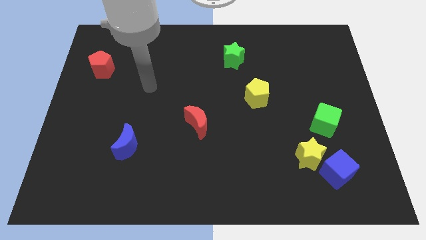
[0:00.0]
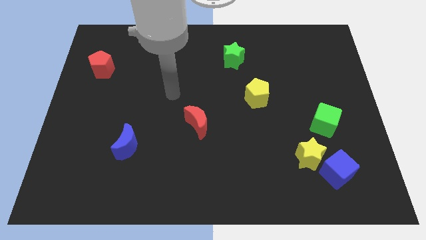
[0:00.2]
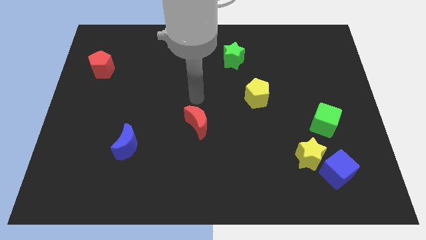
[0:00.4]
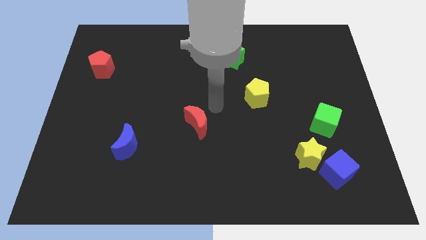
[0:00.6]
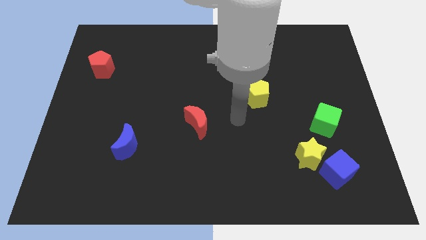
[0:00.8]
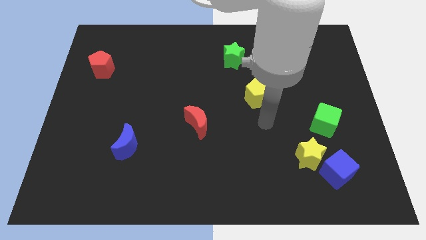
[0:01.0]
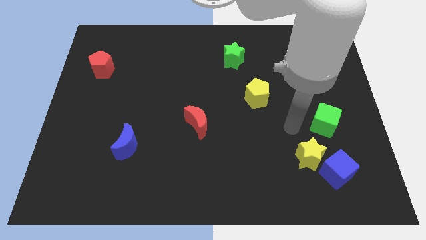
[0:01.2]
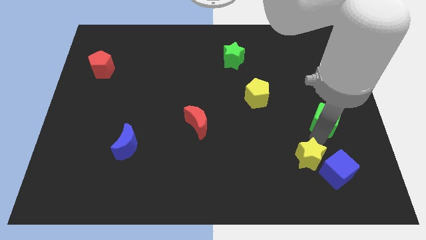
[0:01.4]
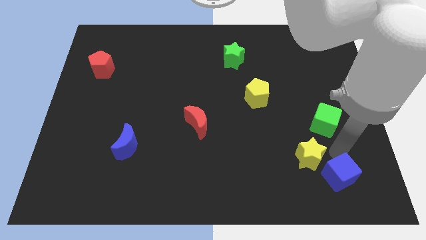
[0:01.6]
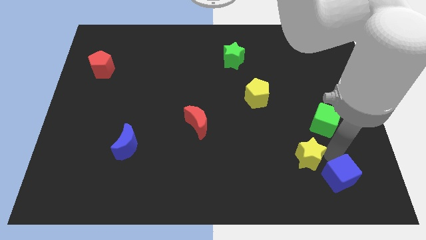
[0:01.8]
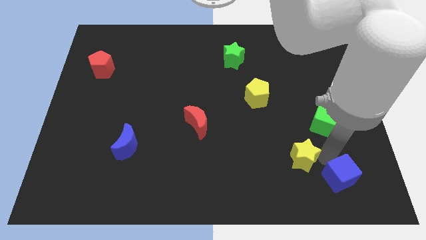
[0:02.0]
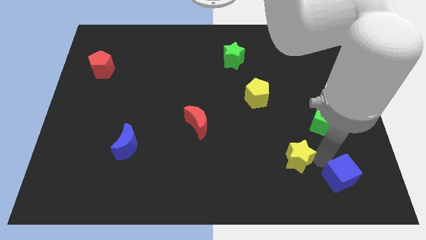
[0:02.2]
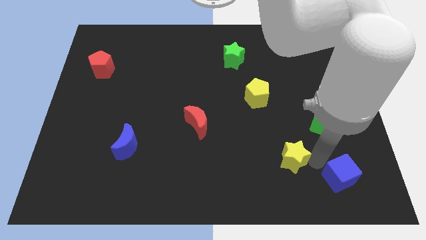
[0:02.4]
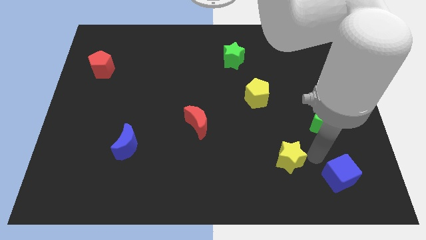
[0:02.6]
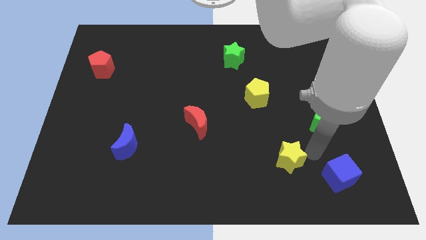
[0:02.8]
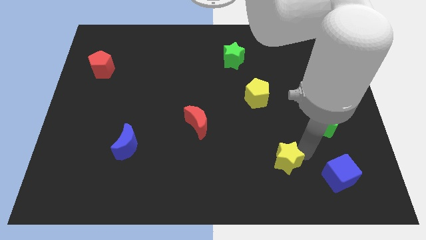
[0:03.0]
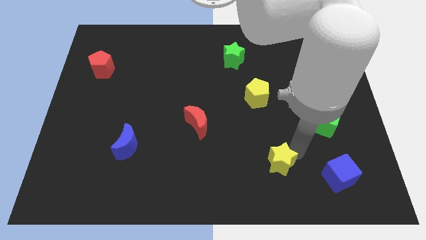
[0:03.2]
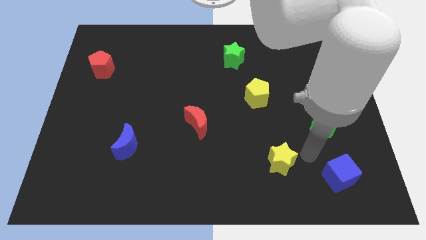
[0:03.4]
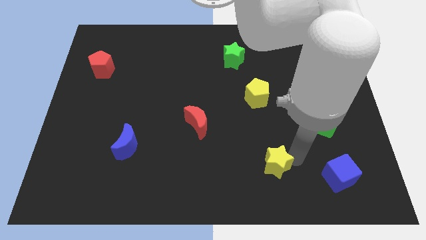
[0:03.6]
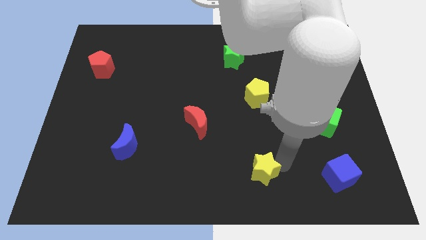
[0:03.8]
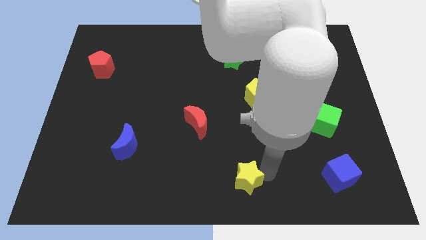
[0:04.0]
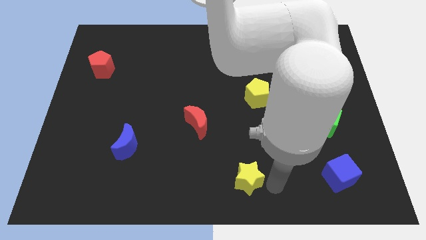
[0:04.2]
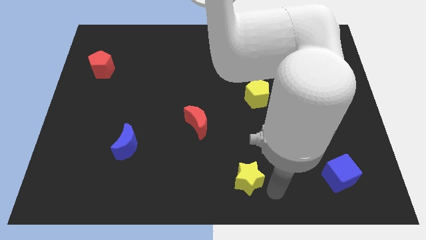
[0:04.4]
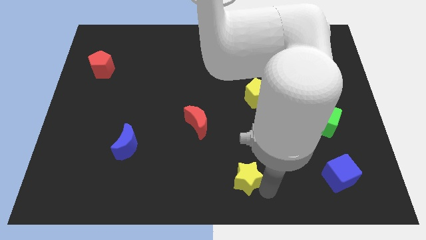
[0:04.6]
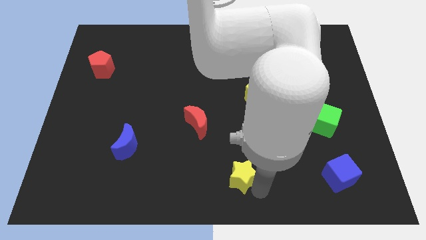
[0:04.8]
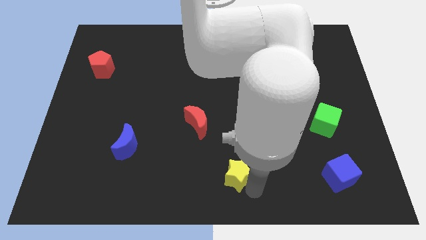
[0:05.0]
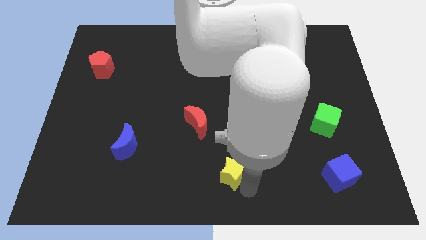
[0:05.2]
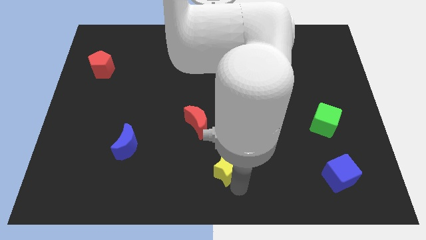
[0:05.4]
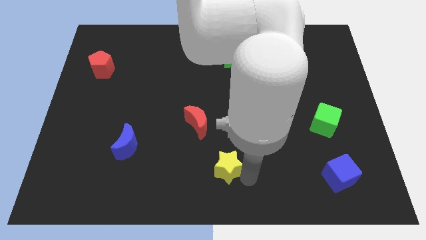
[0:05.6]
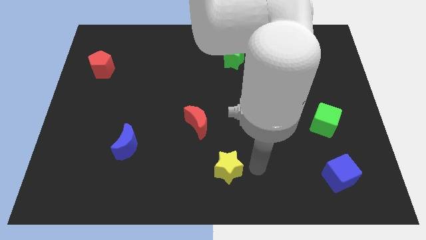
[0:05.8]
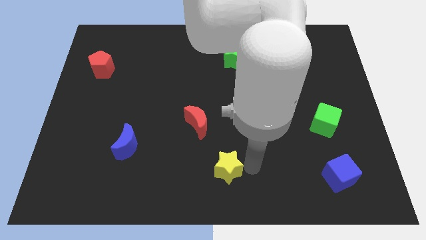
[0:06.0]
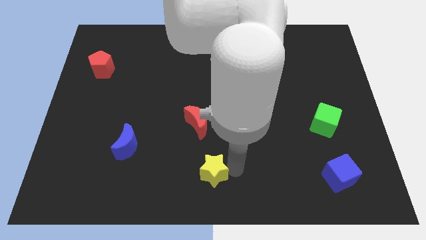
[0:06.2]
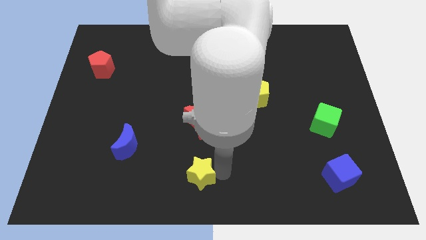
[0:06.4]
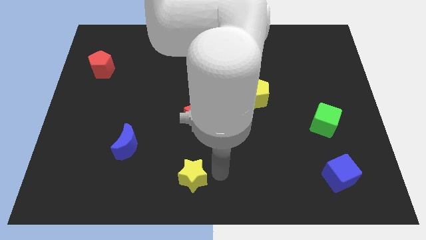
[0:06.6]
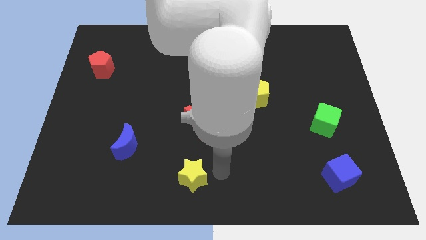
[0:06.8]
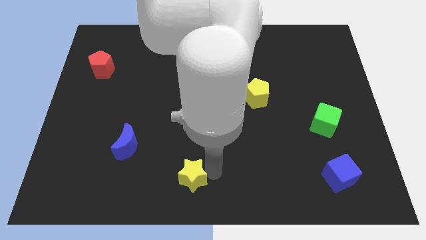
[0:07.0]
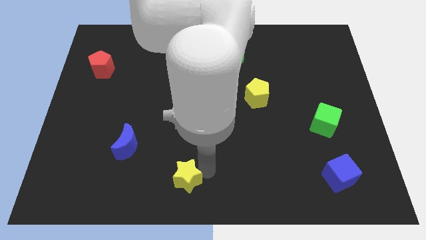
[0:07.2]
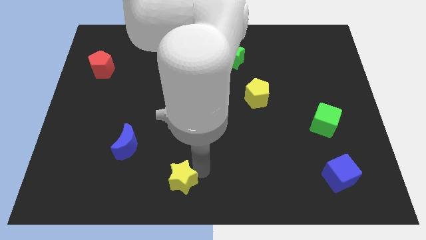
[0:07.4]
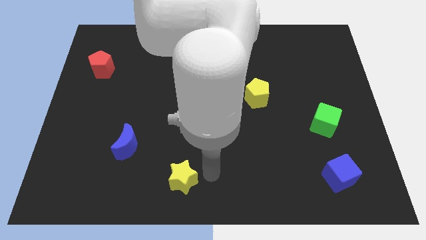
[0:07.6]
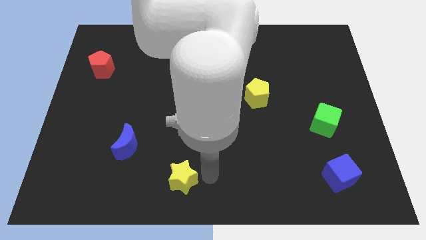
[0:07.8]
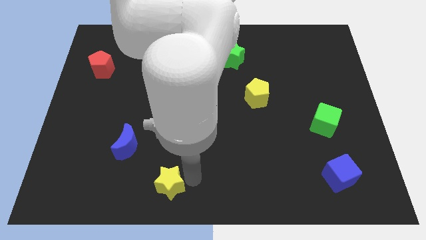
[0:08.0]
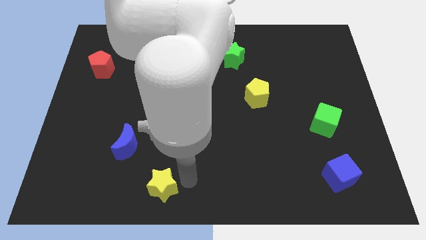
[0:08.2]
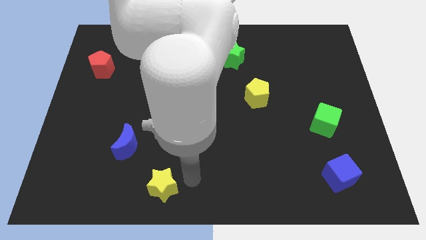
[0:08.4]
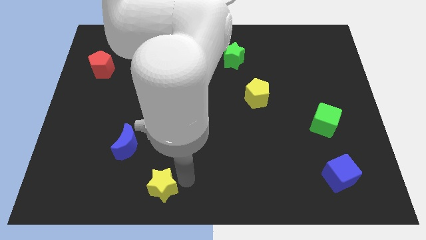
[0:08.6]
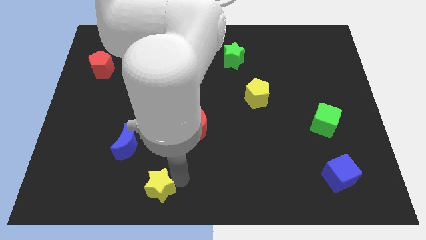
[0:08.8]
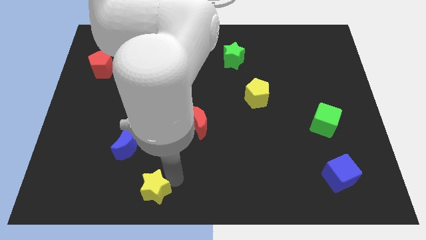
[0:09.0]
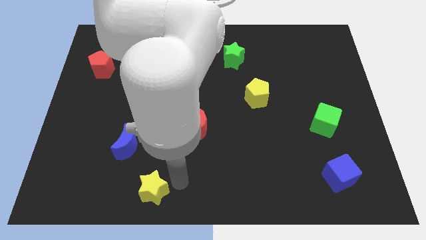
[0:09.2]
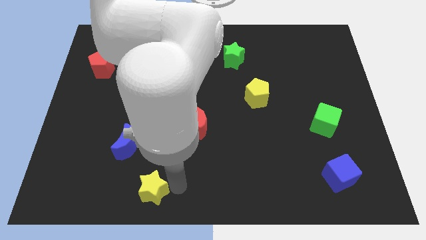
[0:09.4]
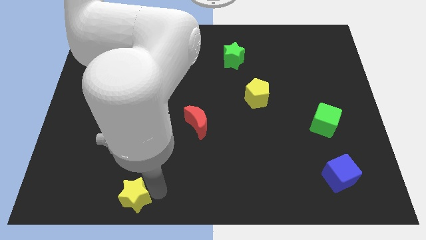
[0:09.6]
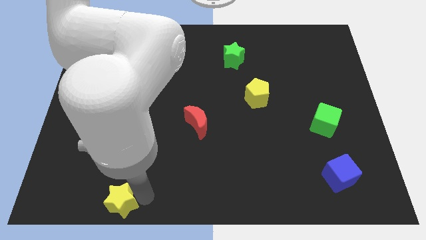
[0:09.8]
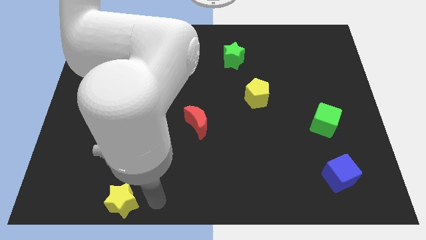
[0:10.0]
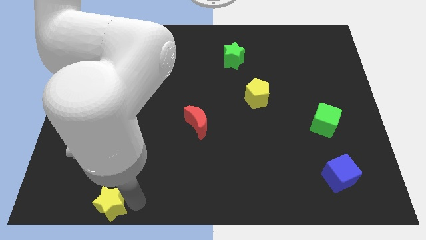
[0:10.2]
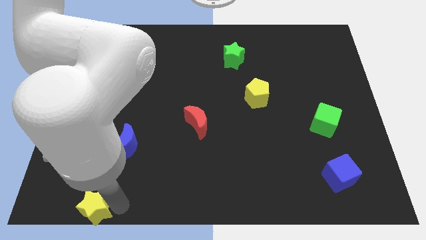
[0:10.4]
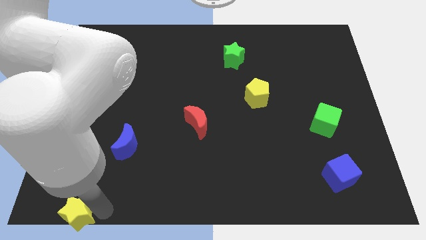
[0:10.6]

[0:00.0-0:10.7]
put the yellow star to the bottom left corner

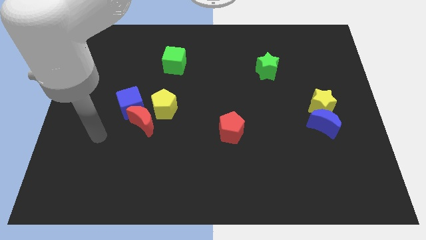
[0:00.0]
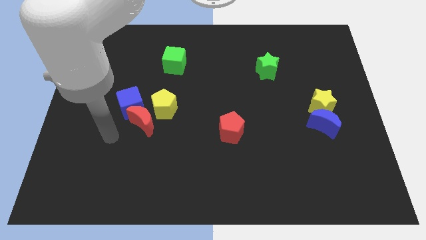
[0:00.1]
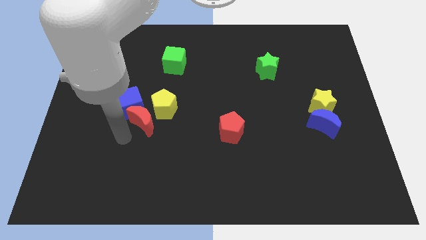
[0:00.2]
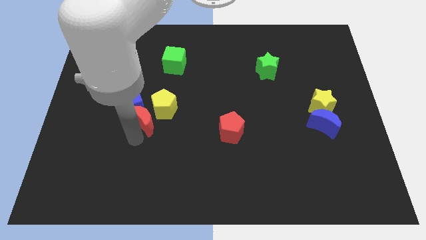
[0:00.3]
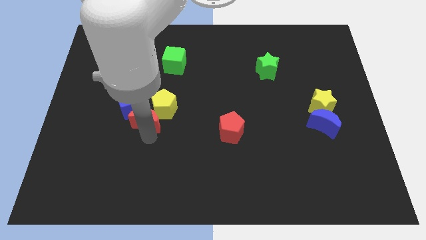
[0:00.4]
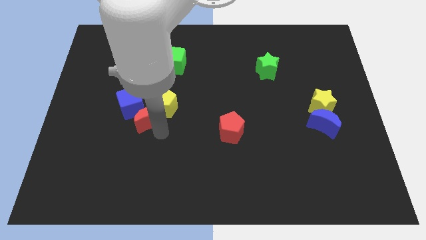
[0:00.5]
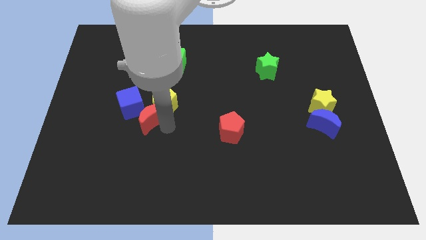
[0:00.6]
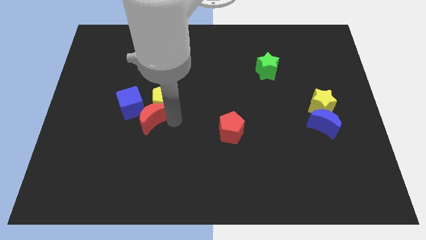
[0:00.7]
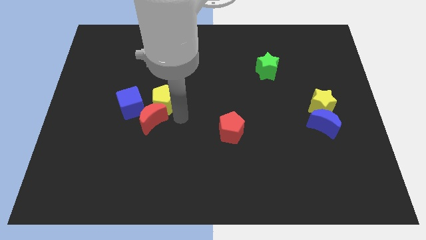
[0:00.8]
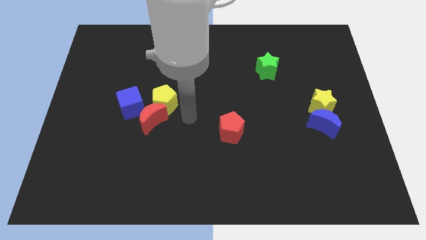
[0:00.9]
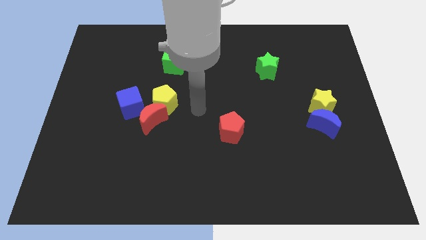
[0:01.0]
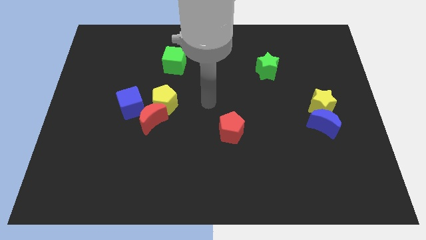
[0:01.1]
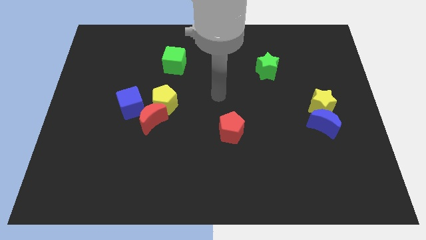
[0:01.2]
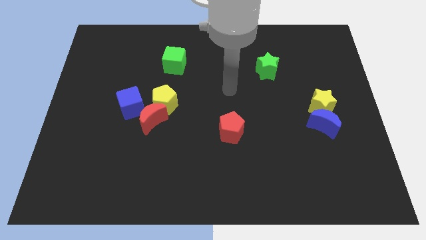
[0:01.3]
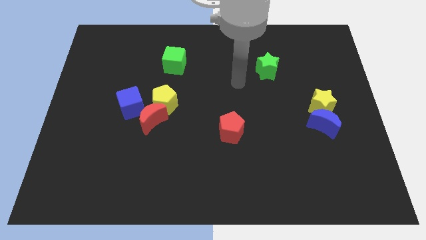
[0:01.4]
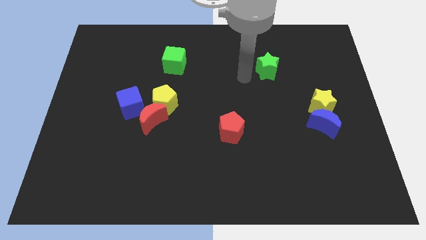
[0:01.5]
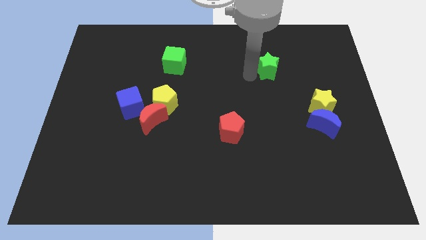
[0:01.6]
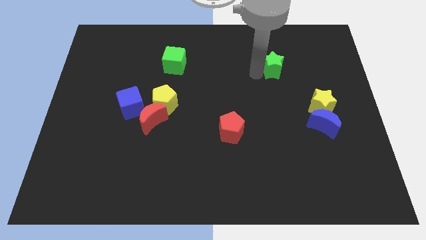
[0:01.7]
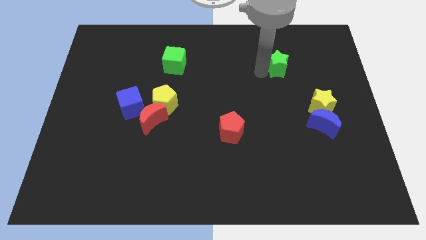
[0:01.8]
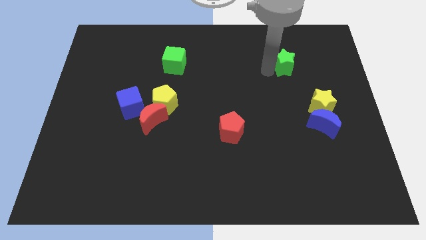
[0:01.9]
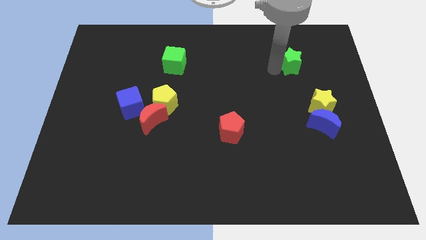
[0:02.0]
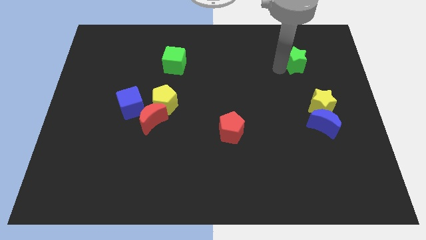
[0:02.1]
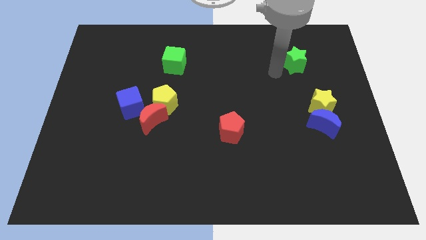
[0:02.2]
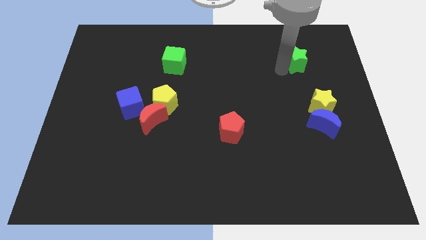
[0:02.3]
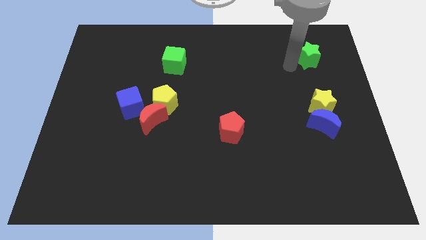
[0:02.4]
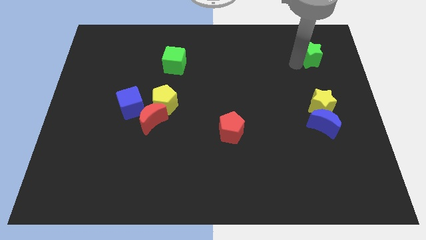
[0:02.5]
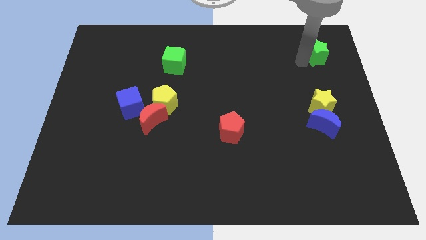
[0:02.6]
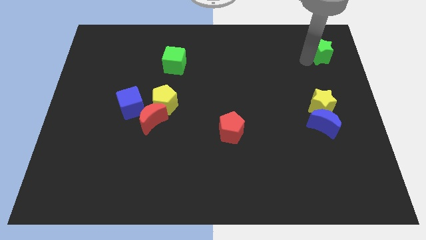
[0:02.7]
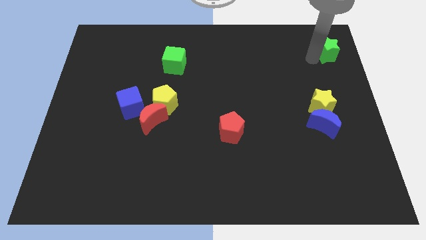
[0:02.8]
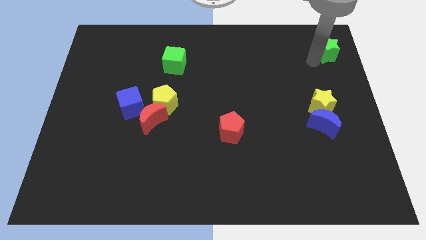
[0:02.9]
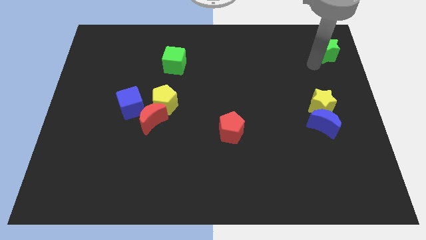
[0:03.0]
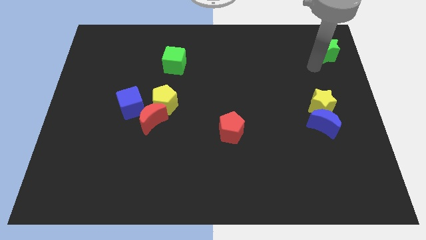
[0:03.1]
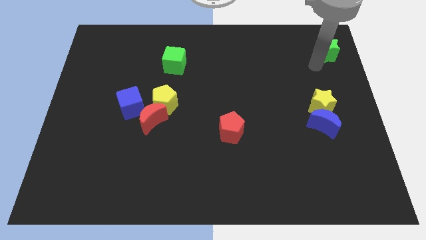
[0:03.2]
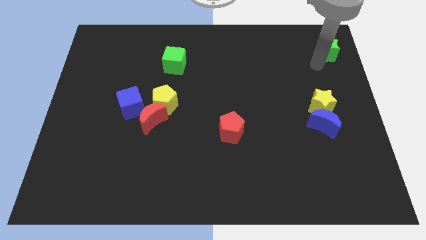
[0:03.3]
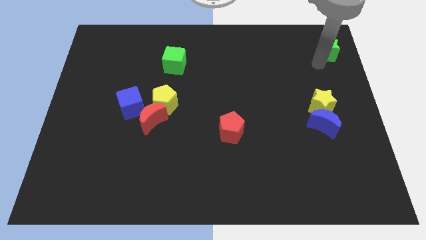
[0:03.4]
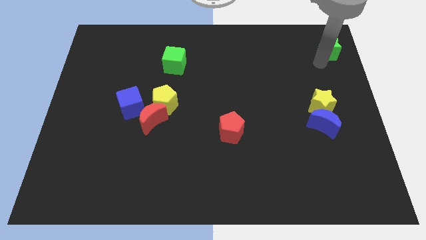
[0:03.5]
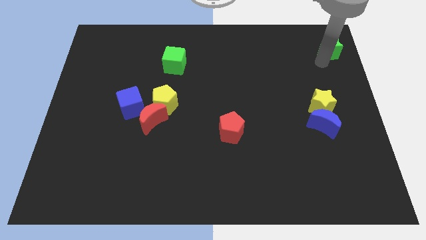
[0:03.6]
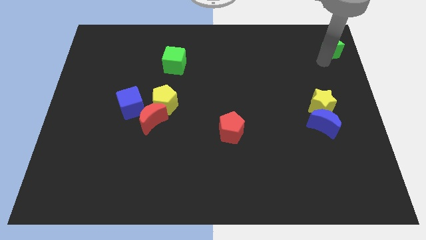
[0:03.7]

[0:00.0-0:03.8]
move the green star to the upper right corner
